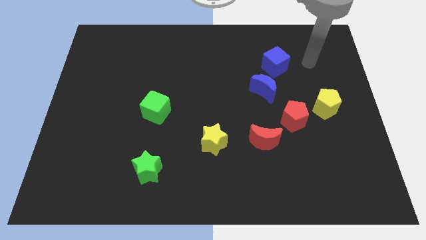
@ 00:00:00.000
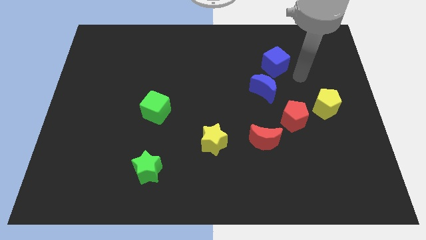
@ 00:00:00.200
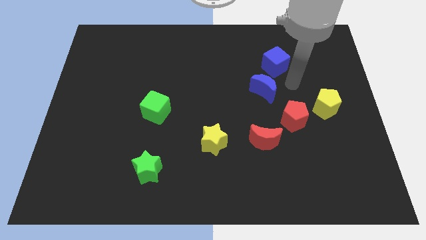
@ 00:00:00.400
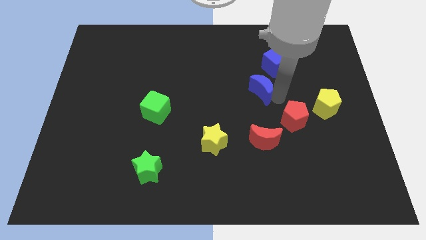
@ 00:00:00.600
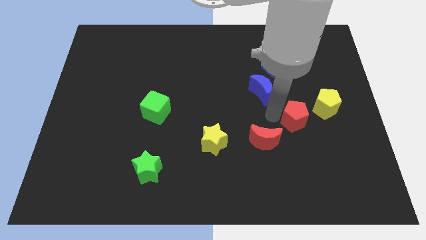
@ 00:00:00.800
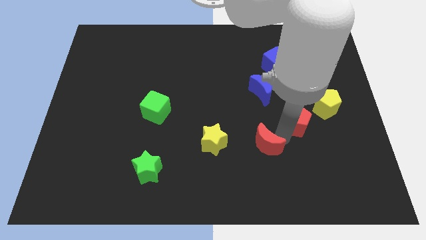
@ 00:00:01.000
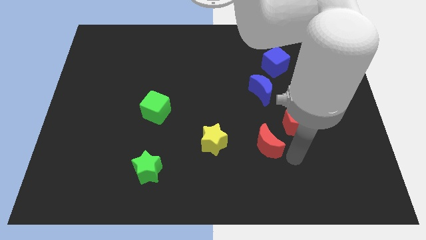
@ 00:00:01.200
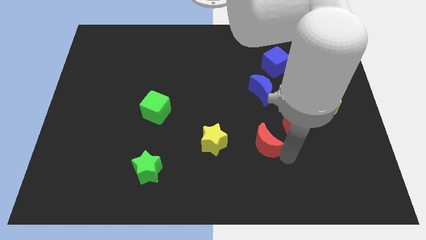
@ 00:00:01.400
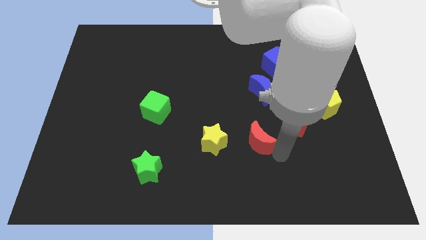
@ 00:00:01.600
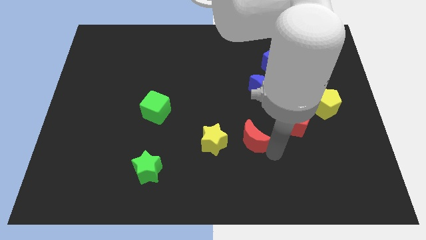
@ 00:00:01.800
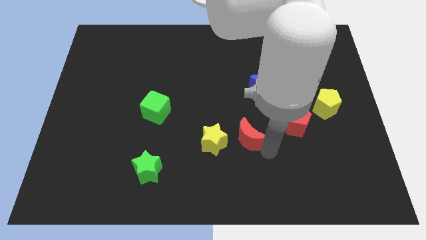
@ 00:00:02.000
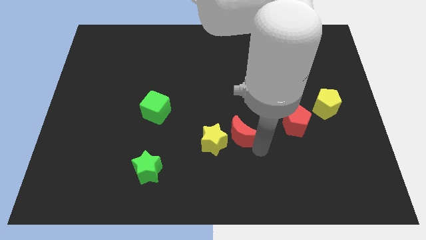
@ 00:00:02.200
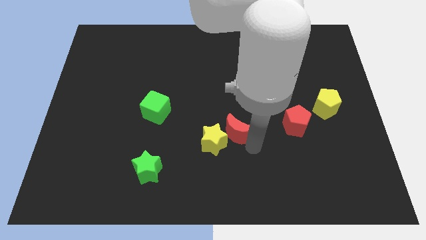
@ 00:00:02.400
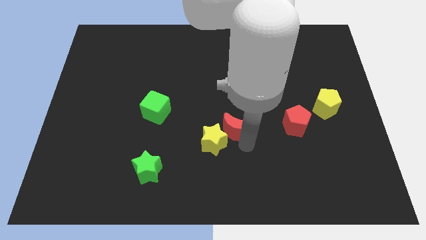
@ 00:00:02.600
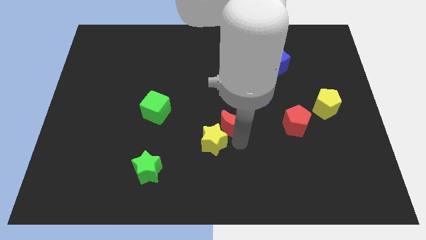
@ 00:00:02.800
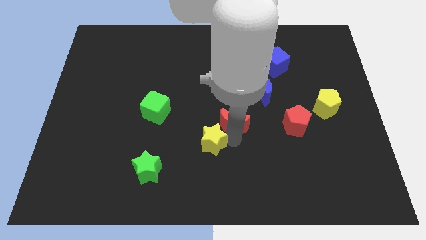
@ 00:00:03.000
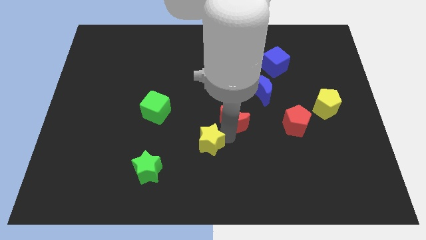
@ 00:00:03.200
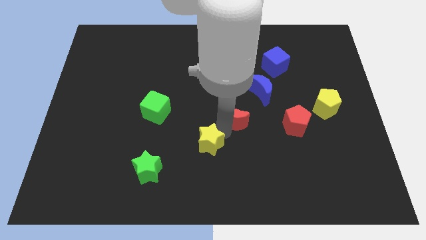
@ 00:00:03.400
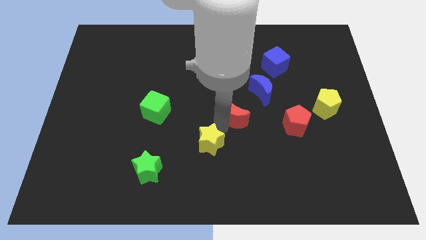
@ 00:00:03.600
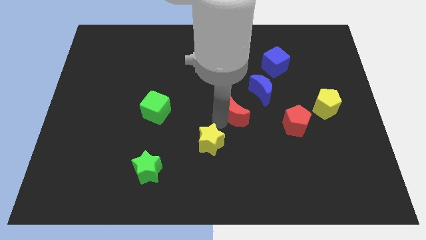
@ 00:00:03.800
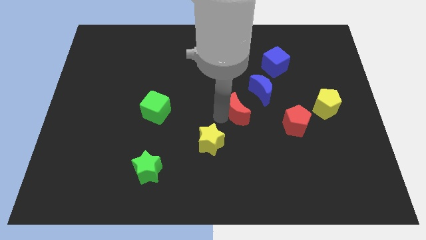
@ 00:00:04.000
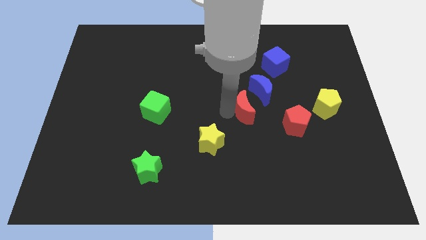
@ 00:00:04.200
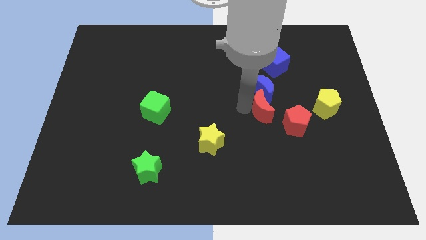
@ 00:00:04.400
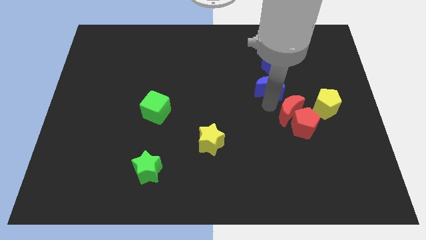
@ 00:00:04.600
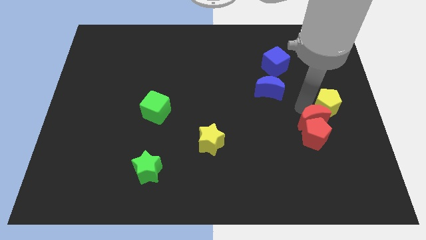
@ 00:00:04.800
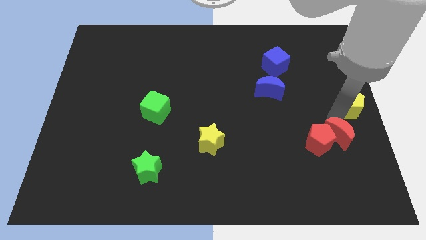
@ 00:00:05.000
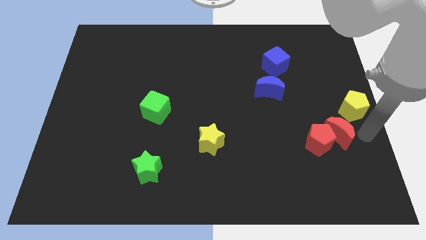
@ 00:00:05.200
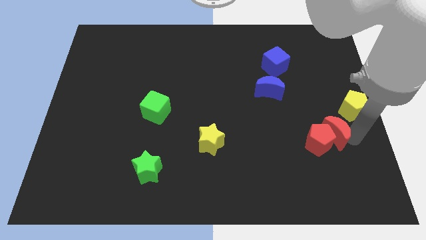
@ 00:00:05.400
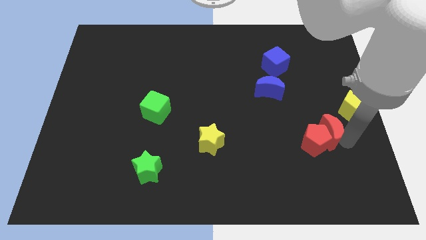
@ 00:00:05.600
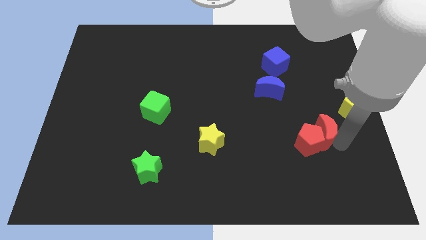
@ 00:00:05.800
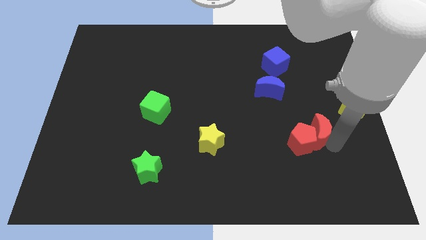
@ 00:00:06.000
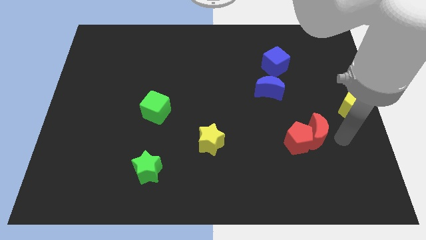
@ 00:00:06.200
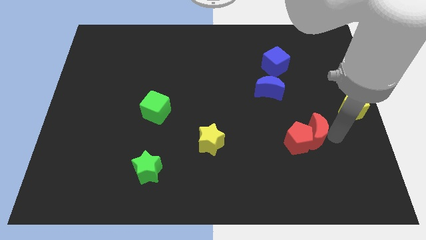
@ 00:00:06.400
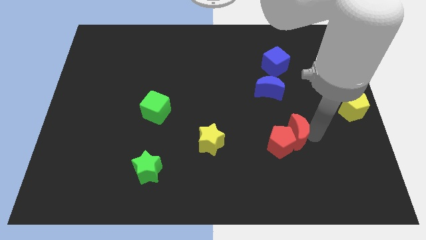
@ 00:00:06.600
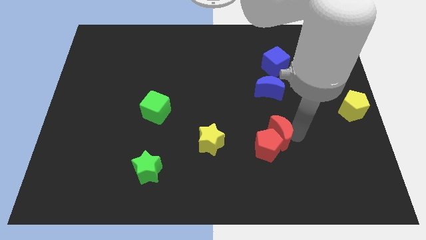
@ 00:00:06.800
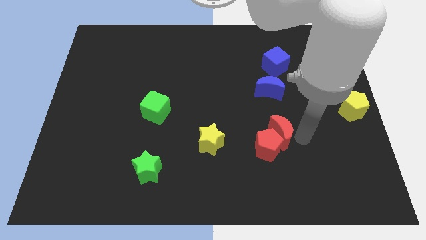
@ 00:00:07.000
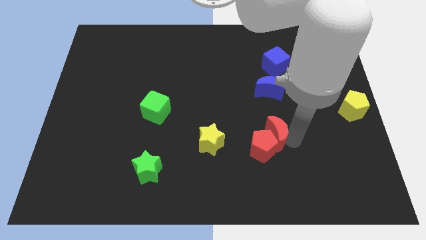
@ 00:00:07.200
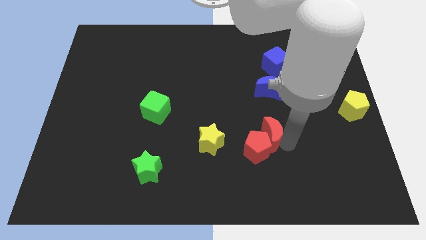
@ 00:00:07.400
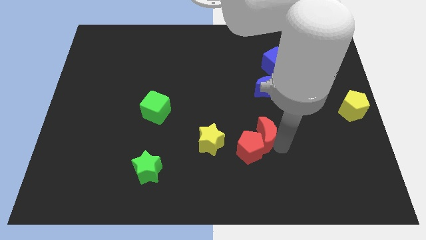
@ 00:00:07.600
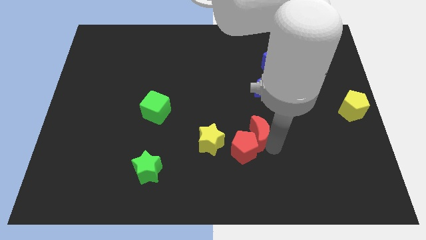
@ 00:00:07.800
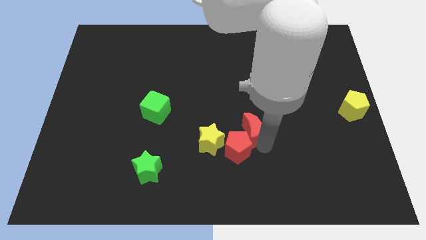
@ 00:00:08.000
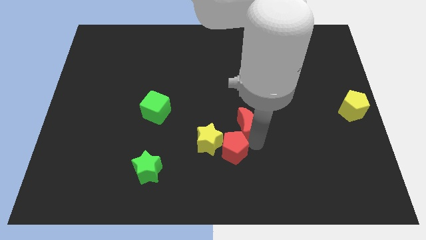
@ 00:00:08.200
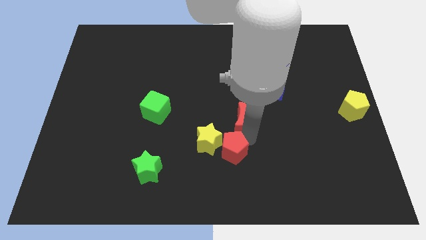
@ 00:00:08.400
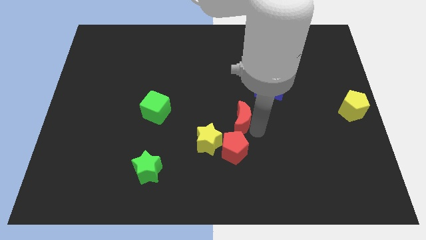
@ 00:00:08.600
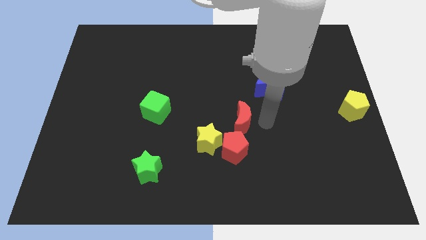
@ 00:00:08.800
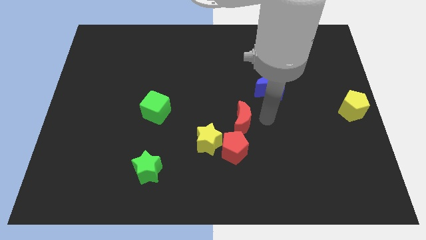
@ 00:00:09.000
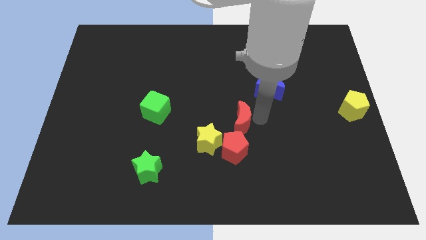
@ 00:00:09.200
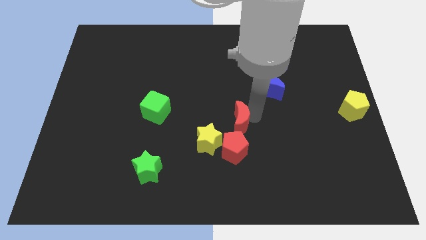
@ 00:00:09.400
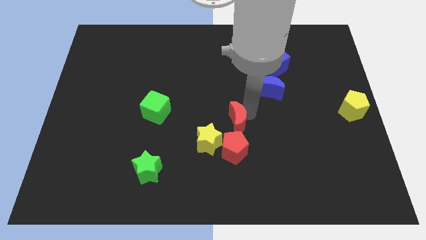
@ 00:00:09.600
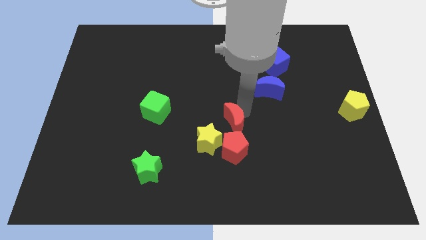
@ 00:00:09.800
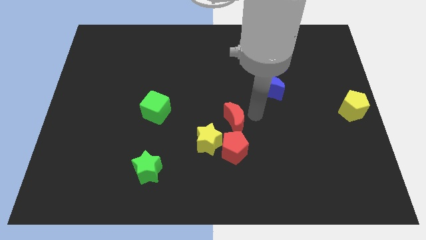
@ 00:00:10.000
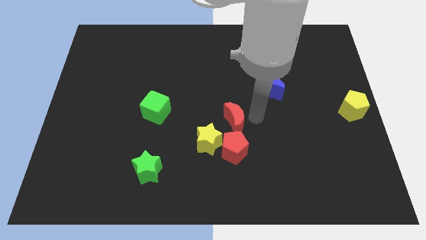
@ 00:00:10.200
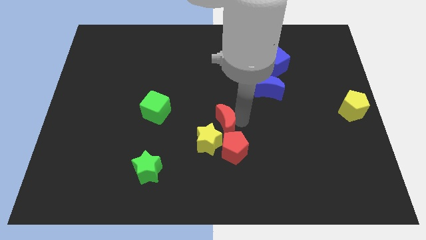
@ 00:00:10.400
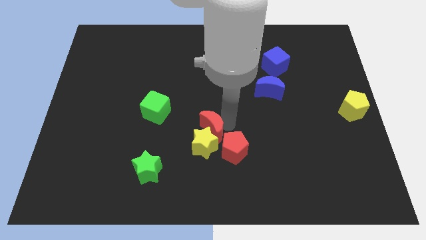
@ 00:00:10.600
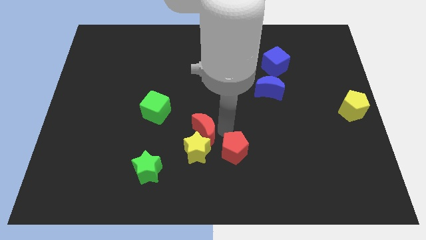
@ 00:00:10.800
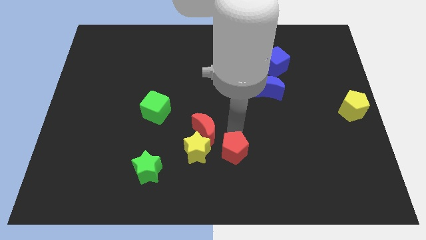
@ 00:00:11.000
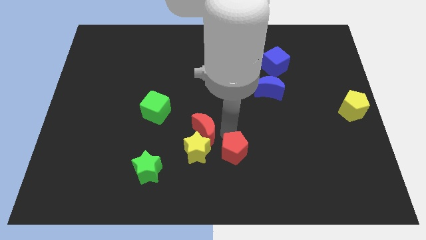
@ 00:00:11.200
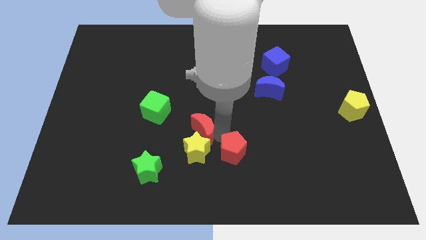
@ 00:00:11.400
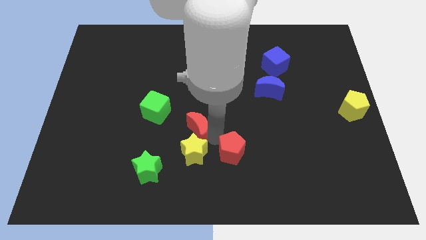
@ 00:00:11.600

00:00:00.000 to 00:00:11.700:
slide the red moon diagonally down and to the right of the green cube

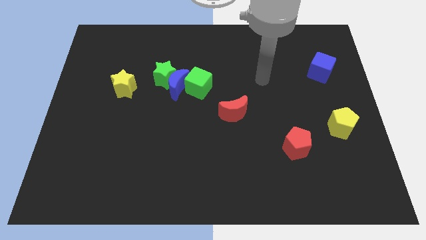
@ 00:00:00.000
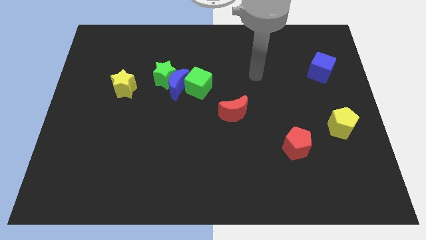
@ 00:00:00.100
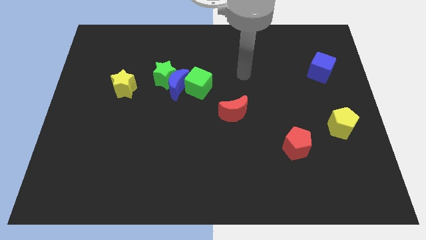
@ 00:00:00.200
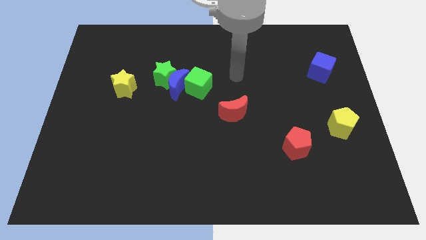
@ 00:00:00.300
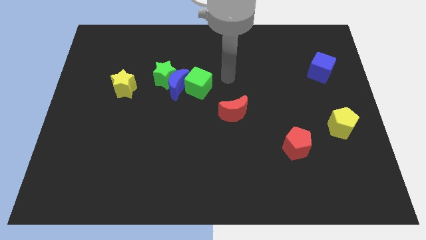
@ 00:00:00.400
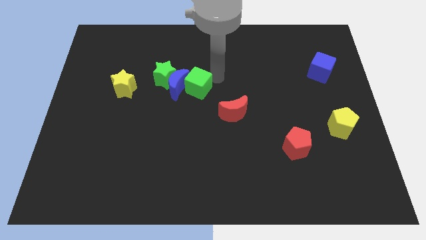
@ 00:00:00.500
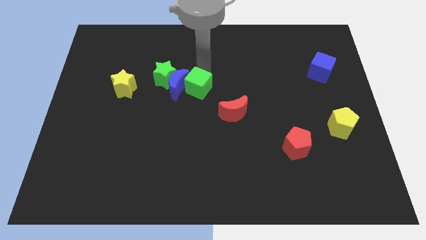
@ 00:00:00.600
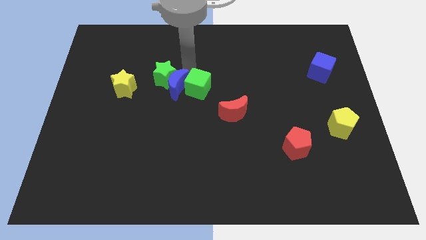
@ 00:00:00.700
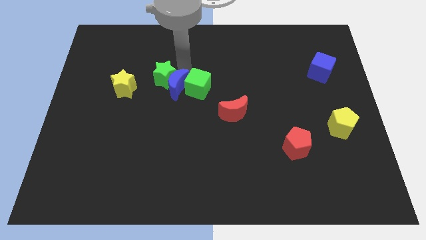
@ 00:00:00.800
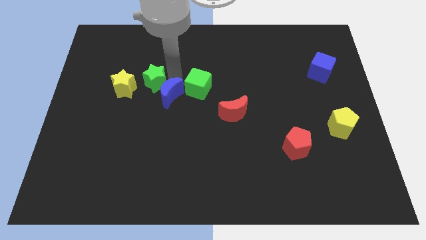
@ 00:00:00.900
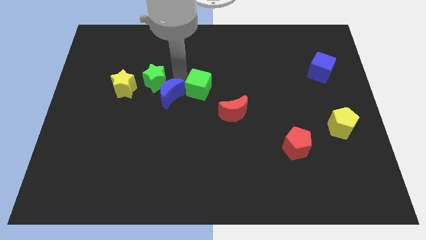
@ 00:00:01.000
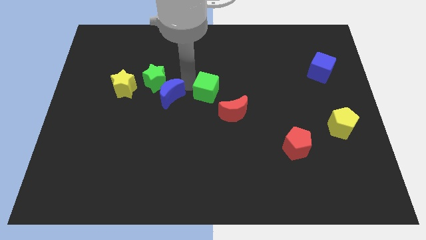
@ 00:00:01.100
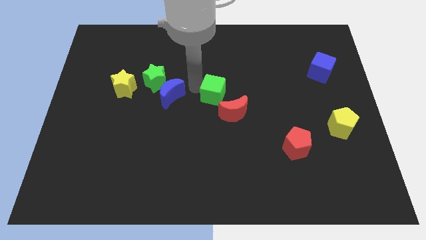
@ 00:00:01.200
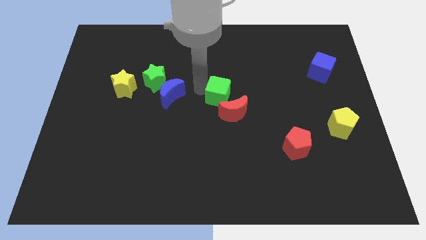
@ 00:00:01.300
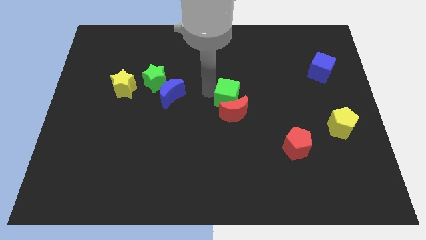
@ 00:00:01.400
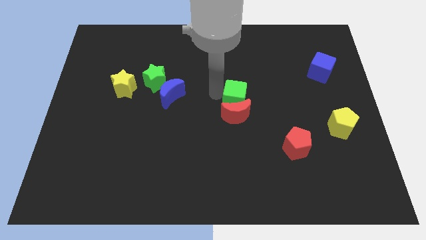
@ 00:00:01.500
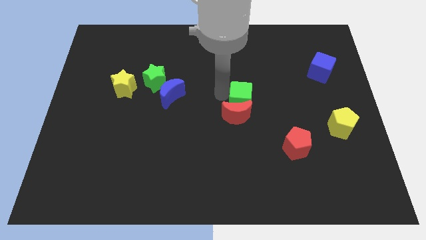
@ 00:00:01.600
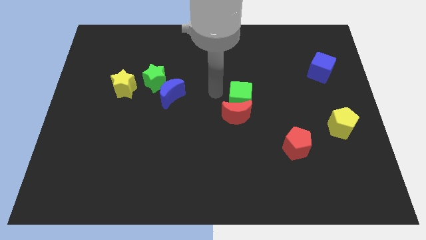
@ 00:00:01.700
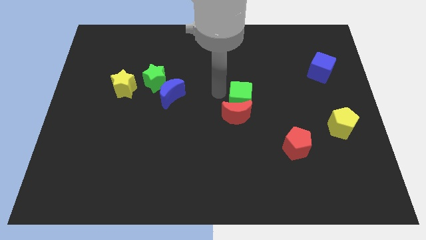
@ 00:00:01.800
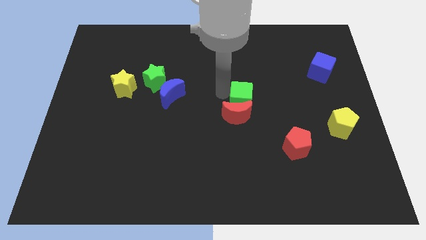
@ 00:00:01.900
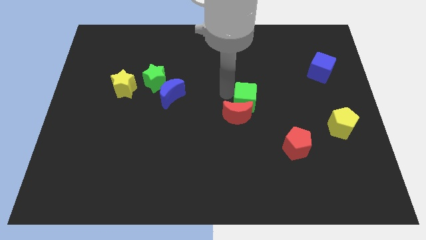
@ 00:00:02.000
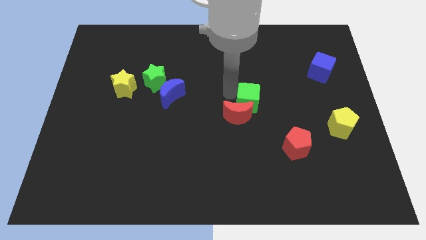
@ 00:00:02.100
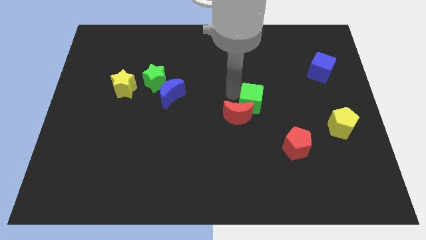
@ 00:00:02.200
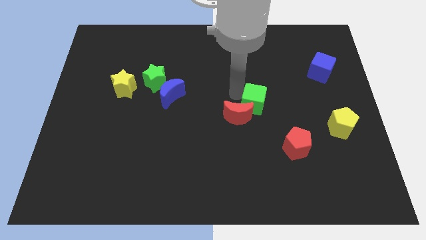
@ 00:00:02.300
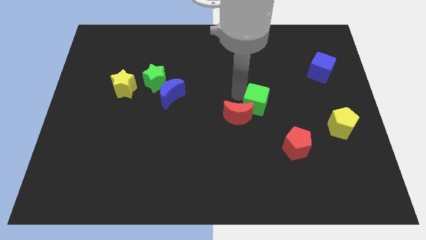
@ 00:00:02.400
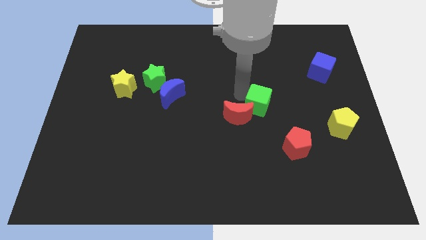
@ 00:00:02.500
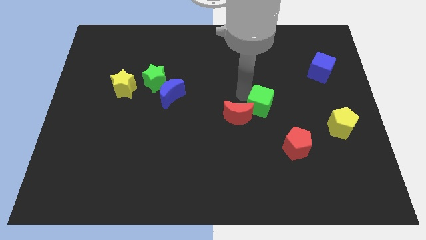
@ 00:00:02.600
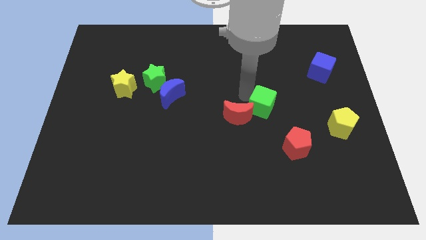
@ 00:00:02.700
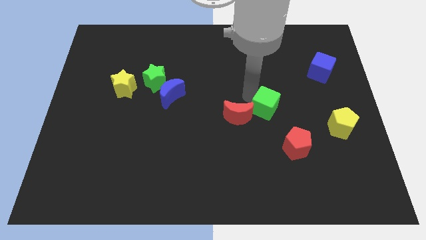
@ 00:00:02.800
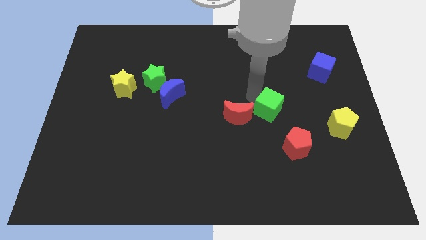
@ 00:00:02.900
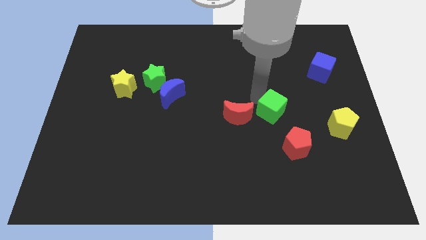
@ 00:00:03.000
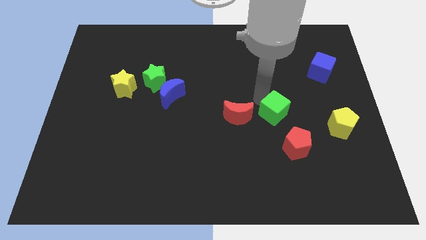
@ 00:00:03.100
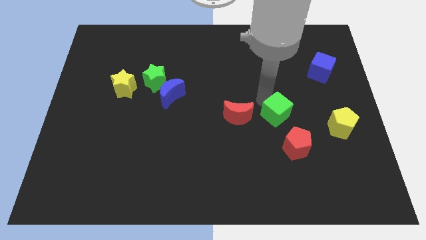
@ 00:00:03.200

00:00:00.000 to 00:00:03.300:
slide the green cube just left of the yellow pentagon
